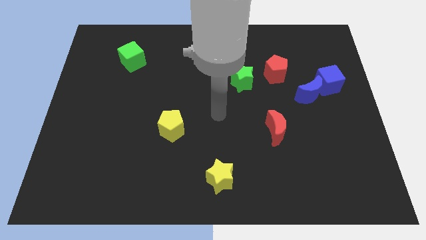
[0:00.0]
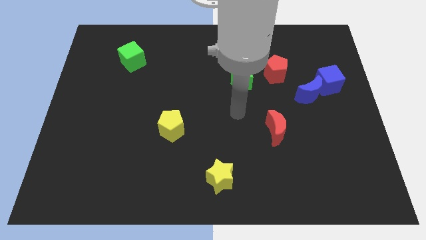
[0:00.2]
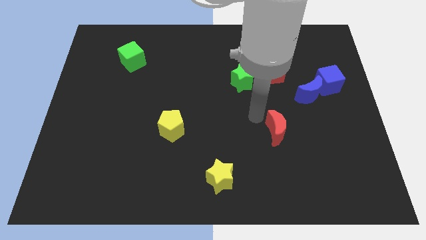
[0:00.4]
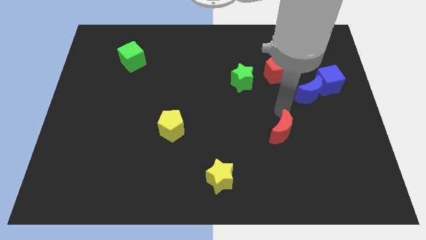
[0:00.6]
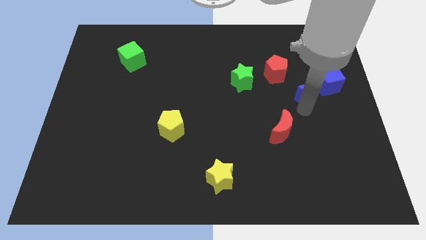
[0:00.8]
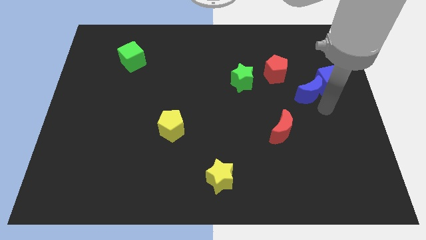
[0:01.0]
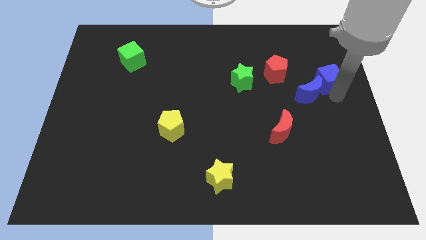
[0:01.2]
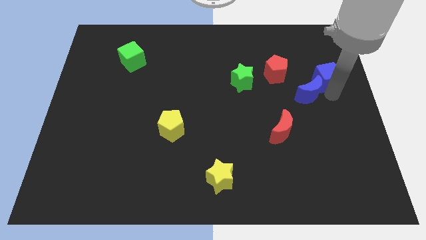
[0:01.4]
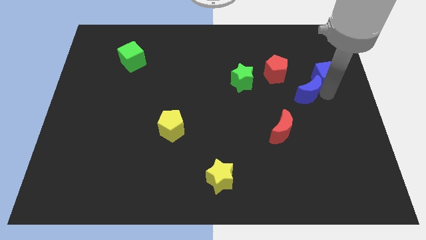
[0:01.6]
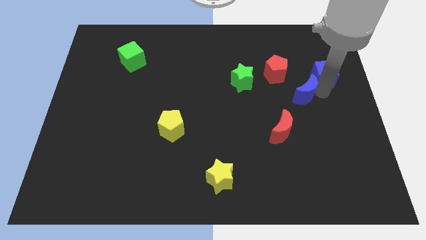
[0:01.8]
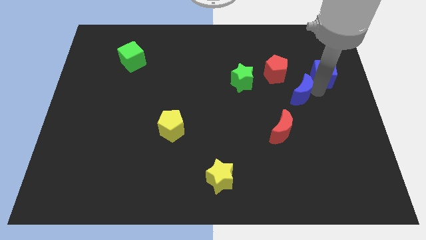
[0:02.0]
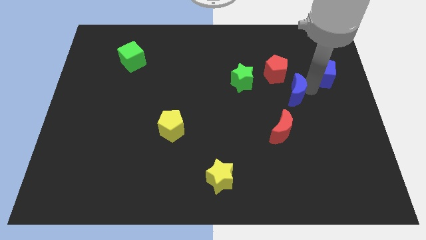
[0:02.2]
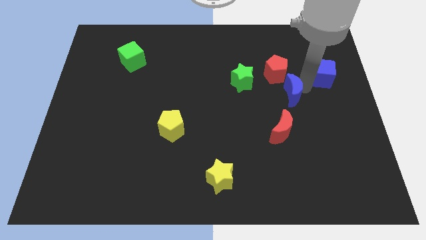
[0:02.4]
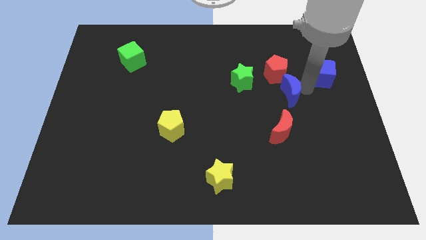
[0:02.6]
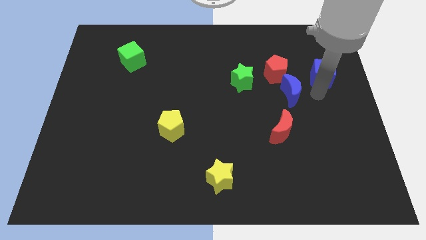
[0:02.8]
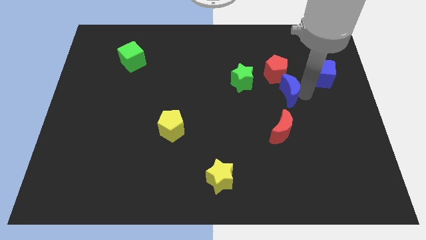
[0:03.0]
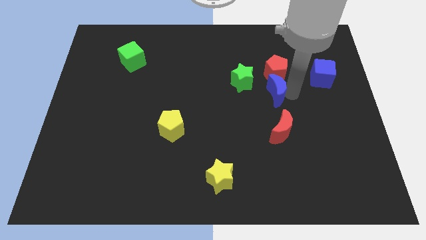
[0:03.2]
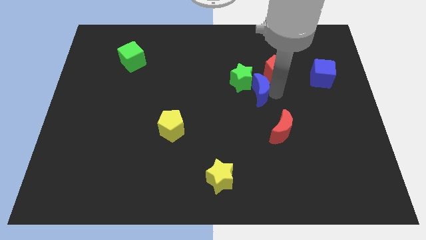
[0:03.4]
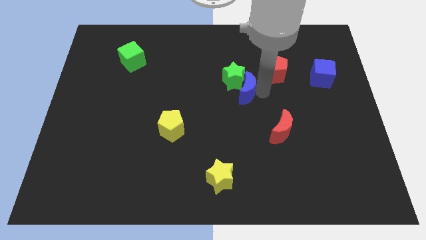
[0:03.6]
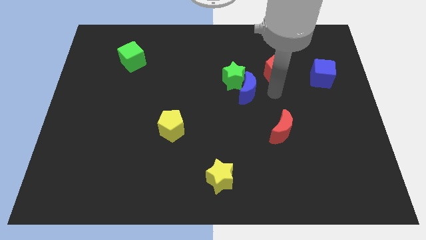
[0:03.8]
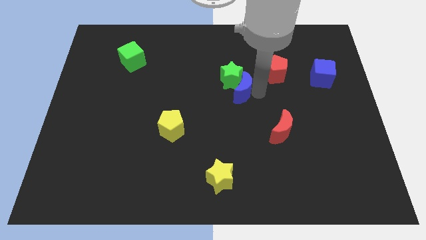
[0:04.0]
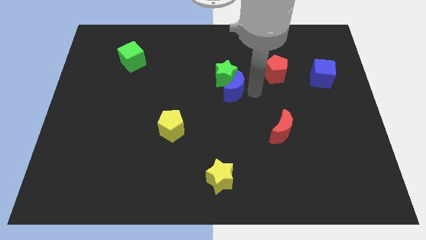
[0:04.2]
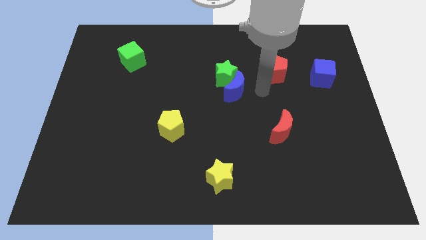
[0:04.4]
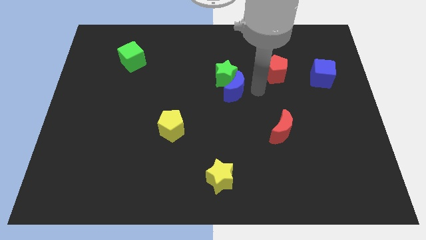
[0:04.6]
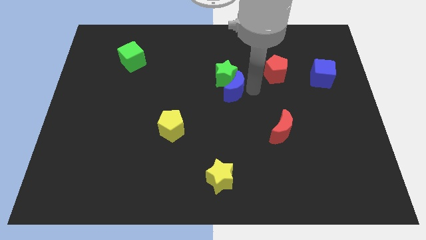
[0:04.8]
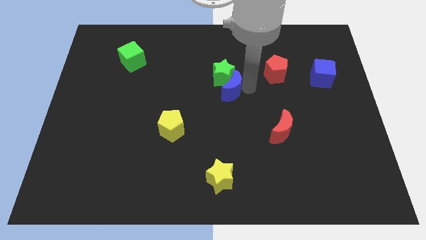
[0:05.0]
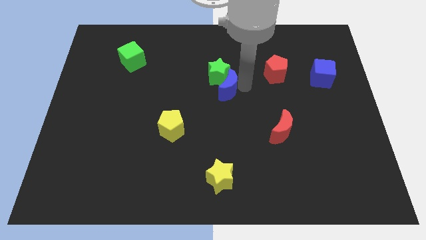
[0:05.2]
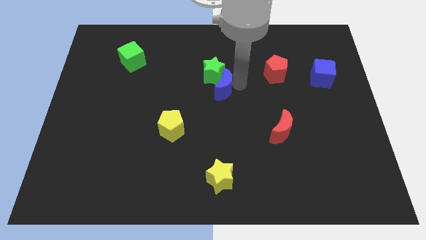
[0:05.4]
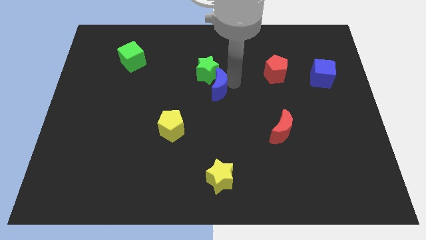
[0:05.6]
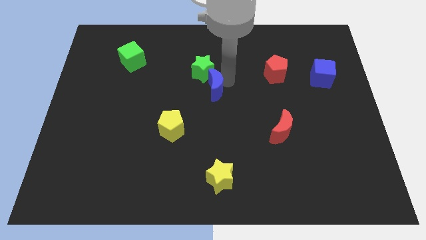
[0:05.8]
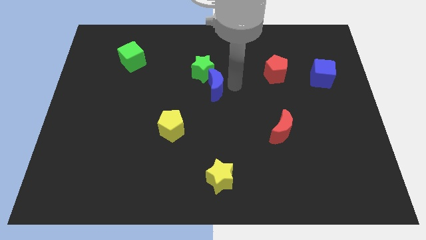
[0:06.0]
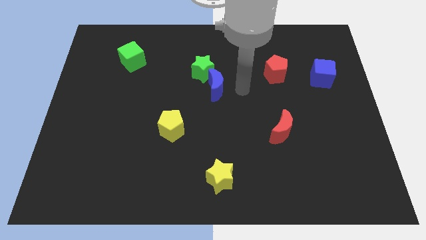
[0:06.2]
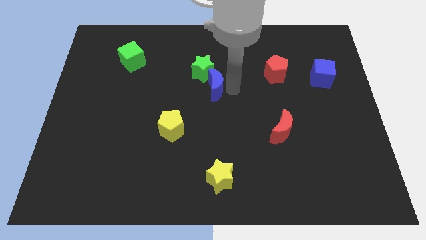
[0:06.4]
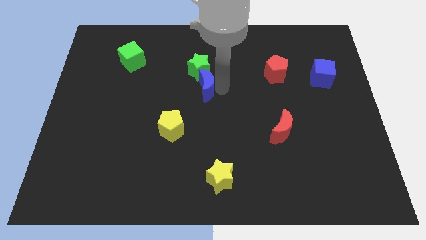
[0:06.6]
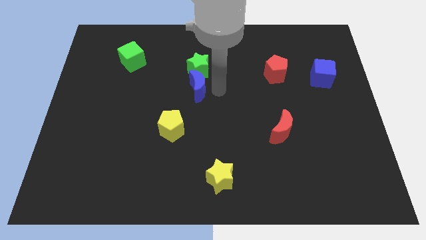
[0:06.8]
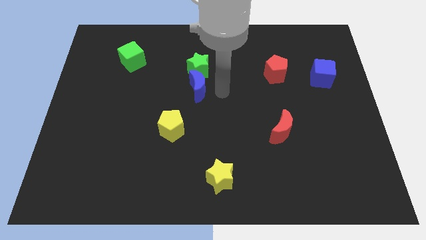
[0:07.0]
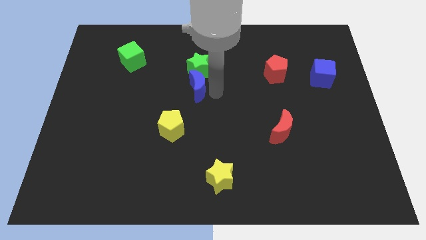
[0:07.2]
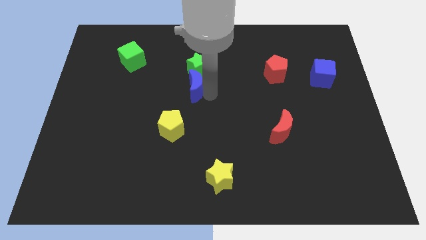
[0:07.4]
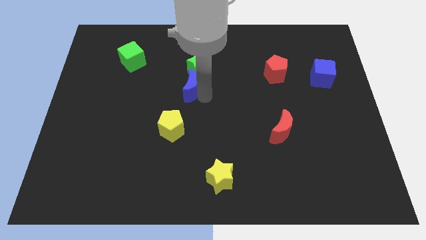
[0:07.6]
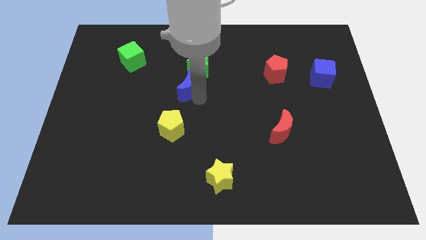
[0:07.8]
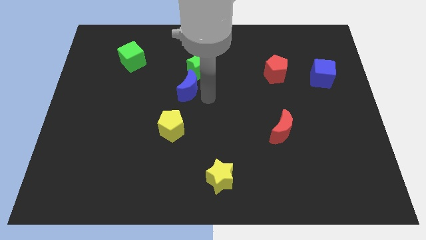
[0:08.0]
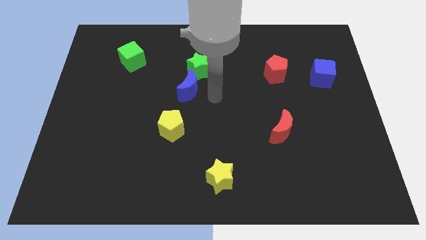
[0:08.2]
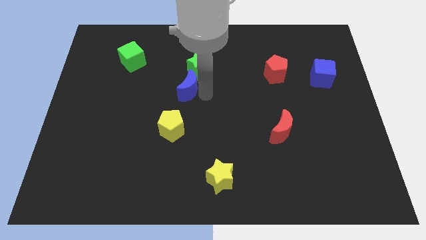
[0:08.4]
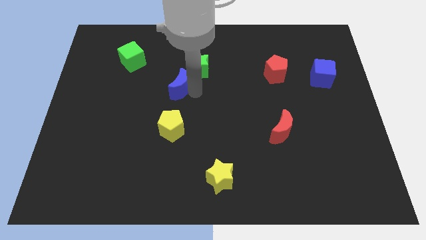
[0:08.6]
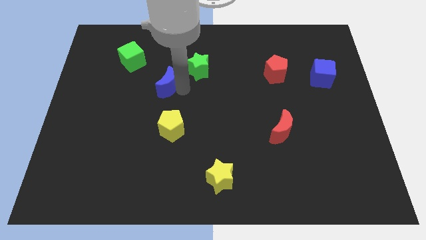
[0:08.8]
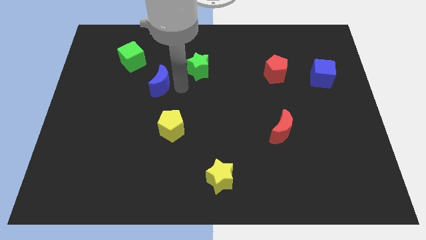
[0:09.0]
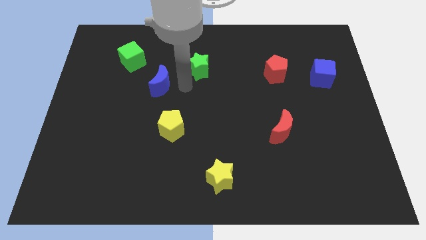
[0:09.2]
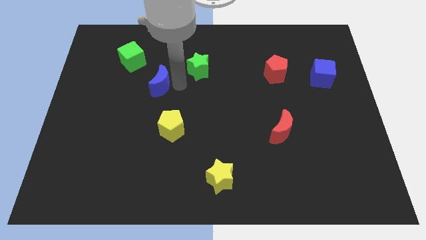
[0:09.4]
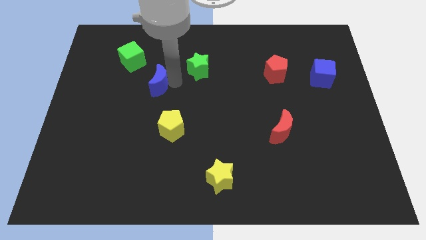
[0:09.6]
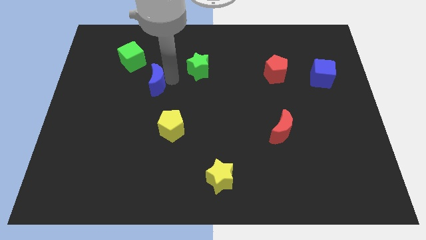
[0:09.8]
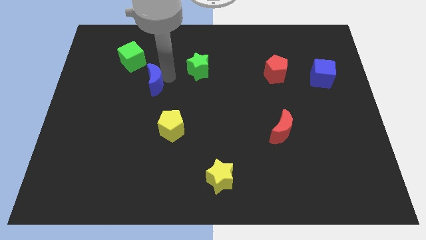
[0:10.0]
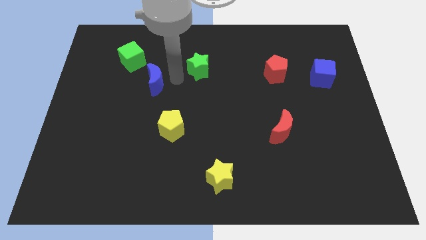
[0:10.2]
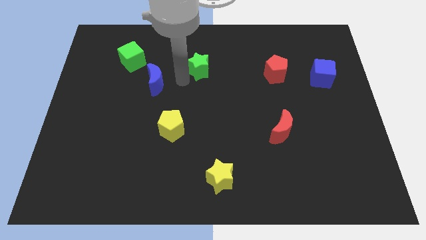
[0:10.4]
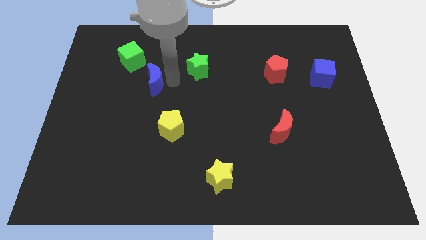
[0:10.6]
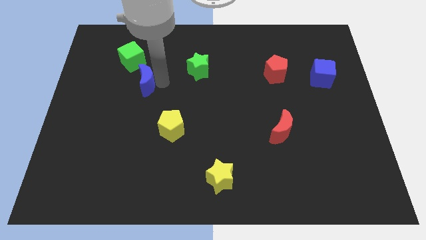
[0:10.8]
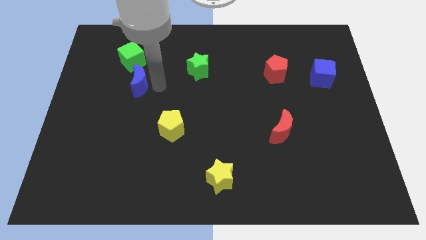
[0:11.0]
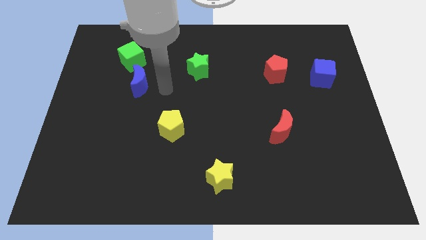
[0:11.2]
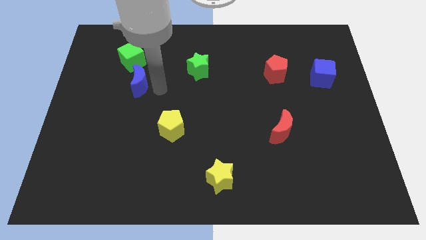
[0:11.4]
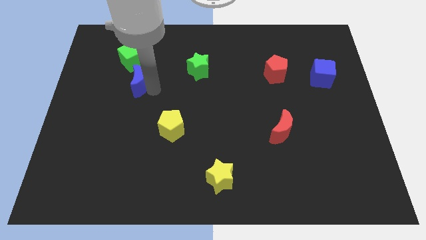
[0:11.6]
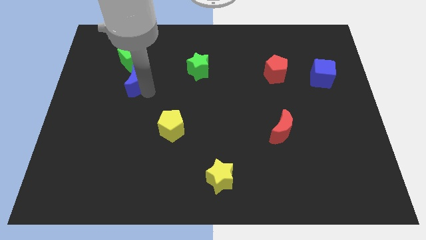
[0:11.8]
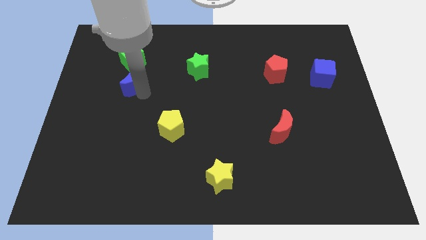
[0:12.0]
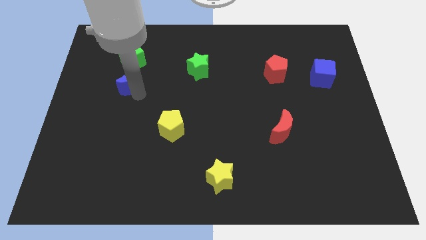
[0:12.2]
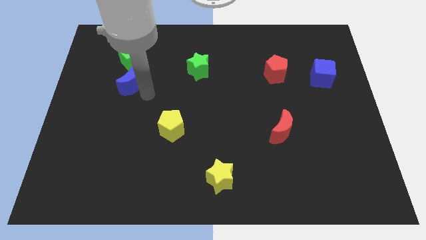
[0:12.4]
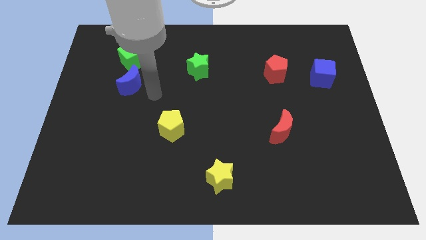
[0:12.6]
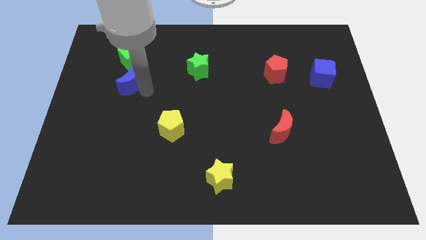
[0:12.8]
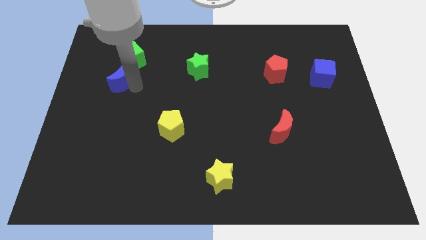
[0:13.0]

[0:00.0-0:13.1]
move the blue moon to the bottom left of the green cube
